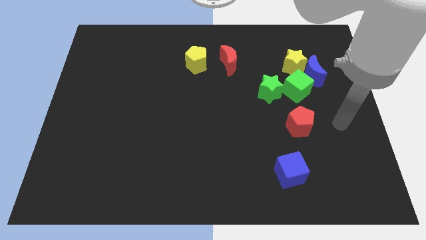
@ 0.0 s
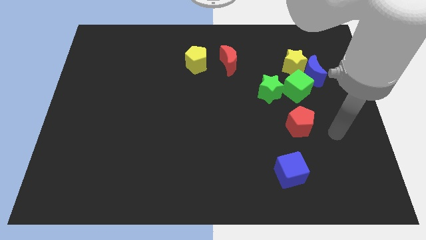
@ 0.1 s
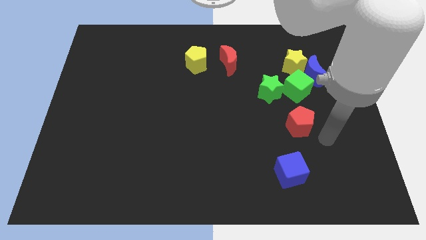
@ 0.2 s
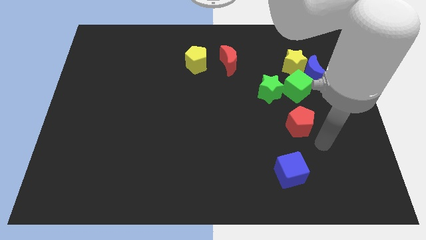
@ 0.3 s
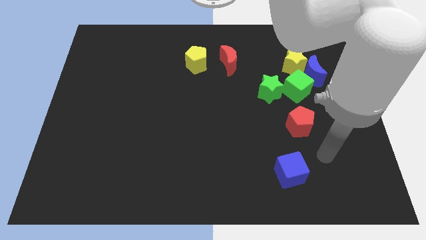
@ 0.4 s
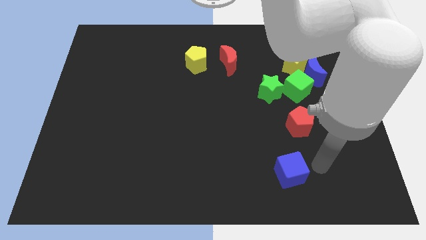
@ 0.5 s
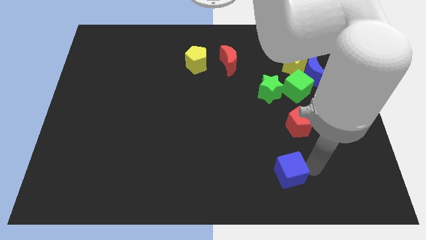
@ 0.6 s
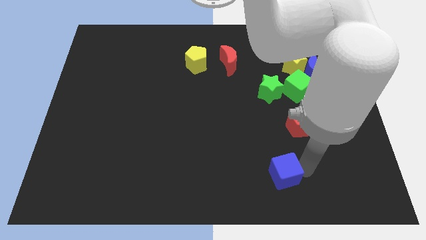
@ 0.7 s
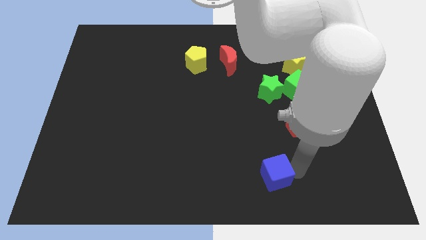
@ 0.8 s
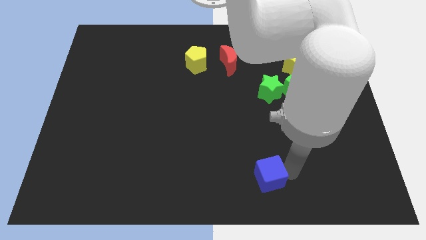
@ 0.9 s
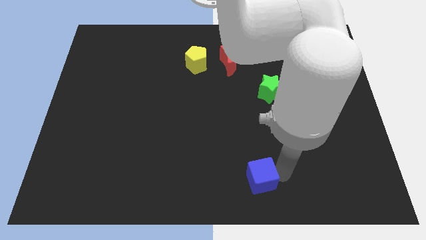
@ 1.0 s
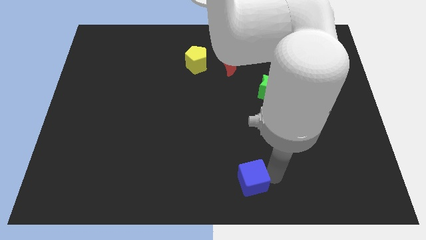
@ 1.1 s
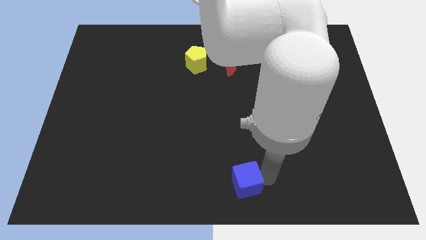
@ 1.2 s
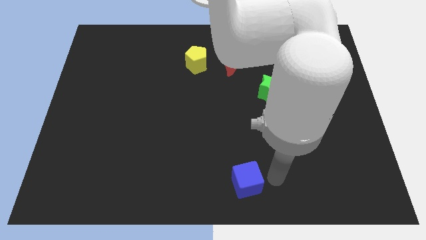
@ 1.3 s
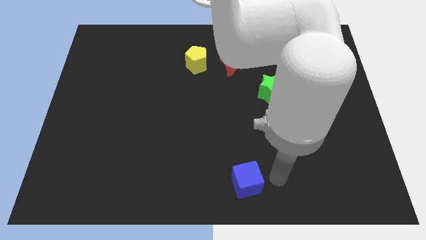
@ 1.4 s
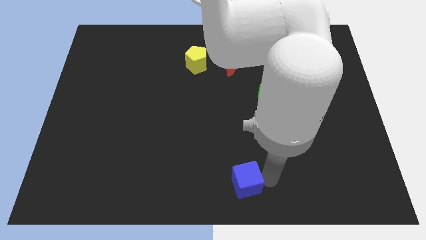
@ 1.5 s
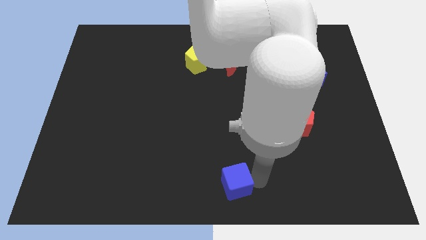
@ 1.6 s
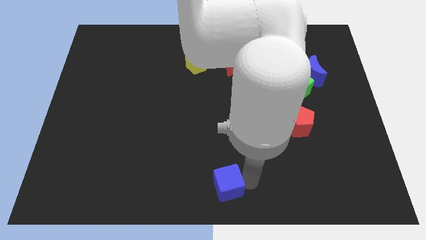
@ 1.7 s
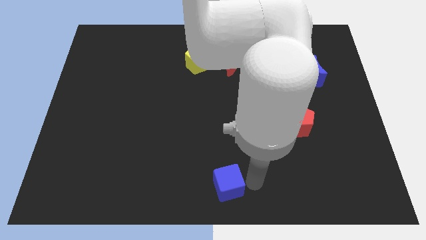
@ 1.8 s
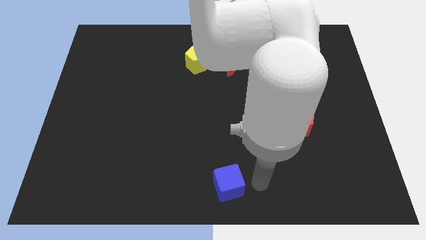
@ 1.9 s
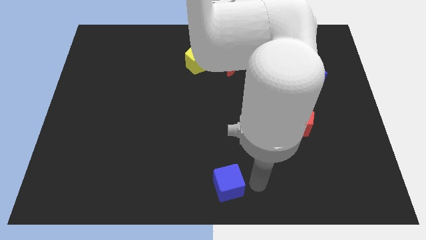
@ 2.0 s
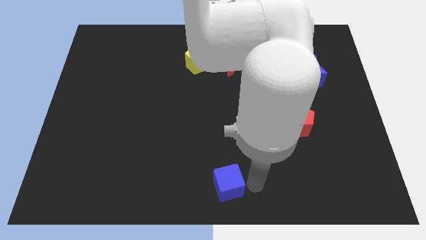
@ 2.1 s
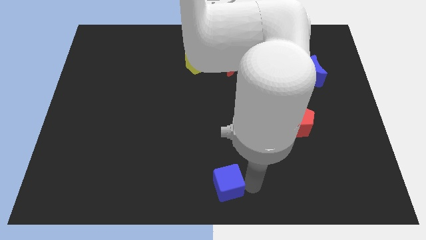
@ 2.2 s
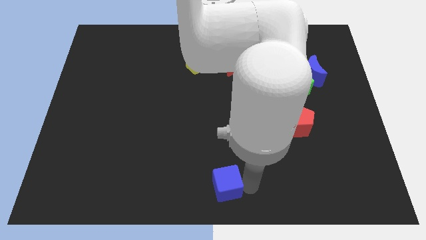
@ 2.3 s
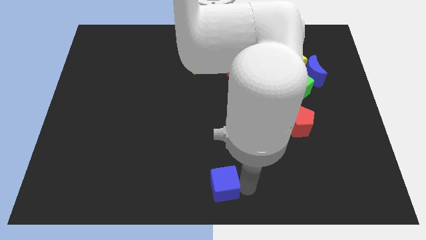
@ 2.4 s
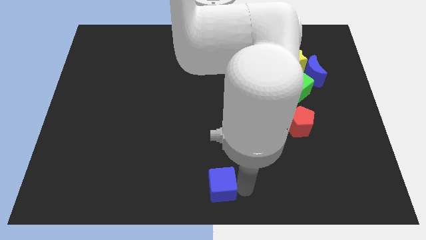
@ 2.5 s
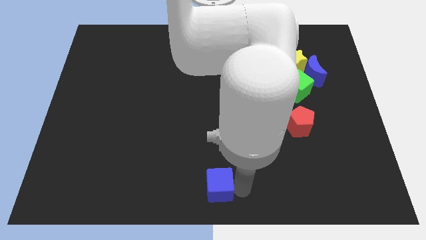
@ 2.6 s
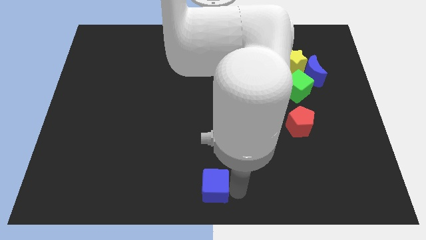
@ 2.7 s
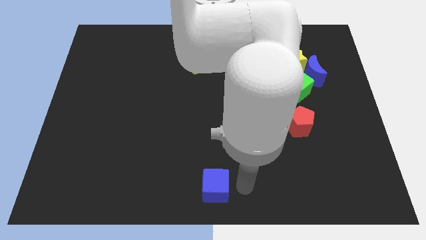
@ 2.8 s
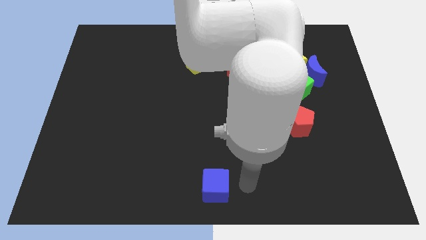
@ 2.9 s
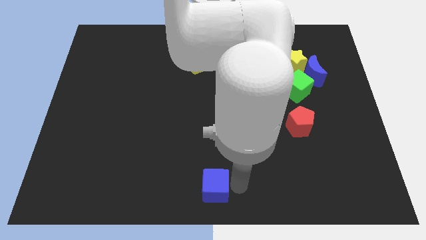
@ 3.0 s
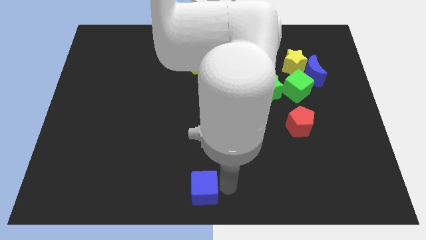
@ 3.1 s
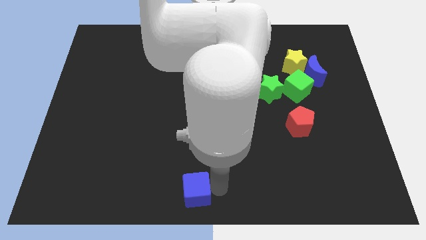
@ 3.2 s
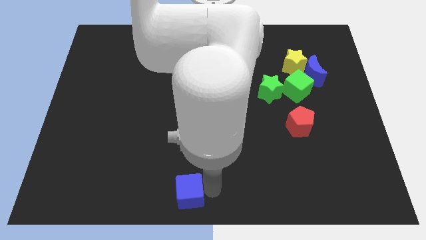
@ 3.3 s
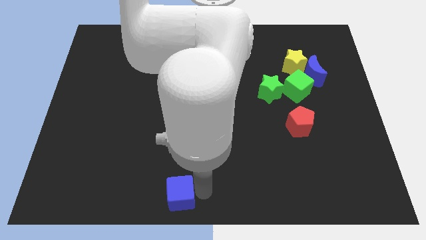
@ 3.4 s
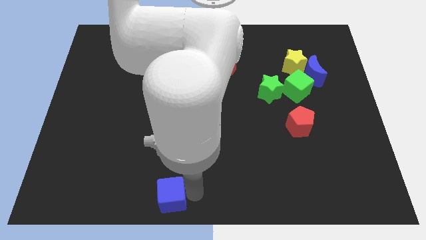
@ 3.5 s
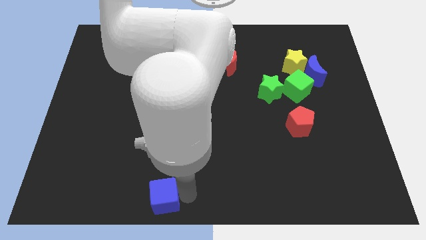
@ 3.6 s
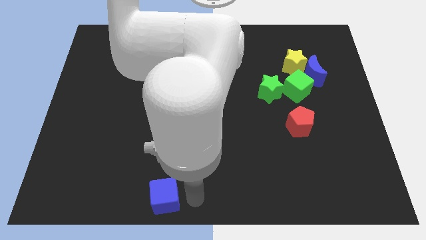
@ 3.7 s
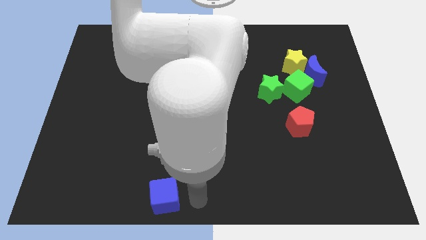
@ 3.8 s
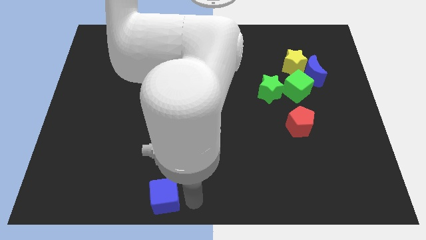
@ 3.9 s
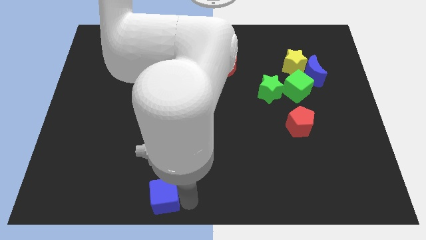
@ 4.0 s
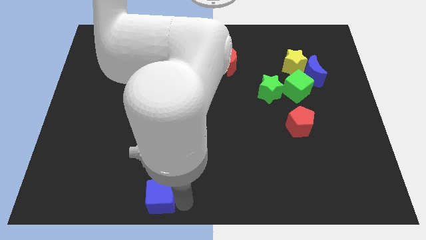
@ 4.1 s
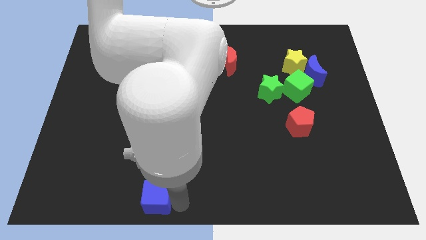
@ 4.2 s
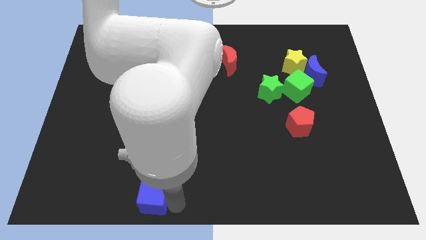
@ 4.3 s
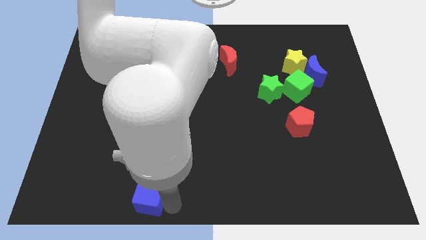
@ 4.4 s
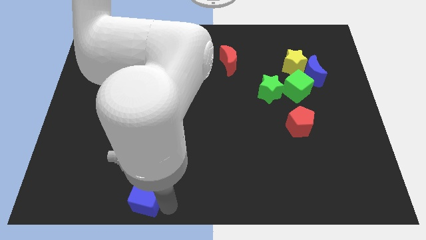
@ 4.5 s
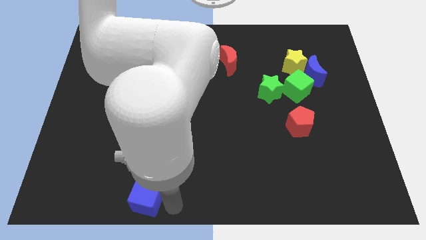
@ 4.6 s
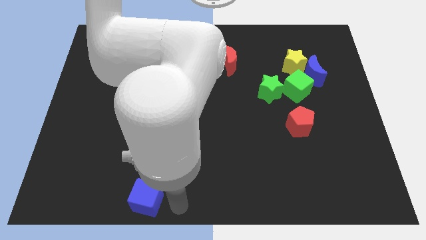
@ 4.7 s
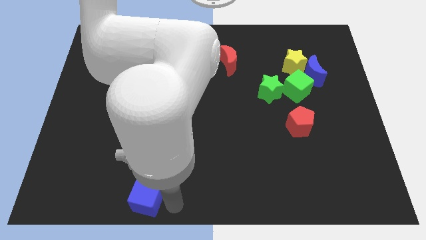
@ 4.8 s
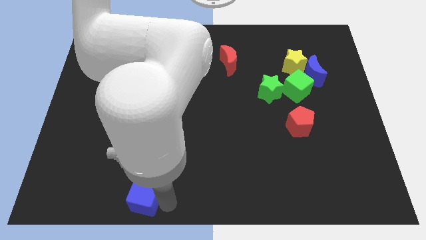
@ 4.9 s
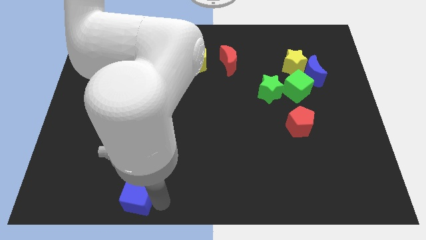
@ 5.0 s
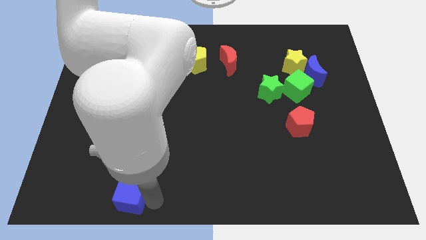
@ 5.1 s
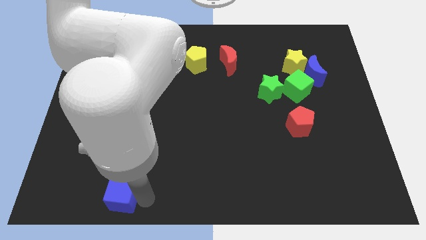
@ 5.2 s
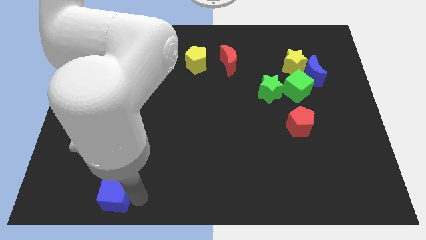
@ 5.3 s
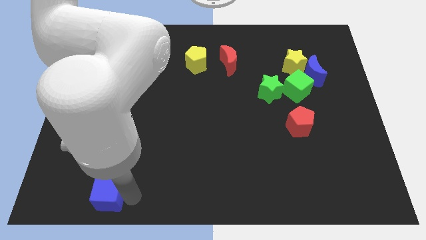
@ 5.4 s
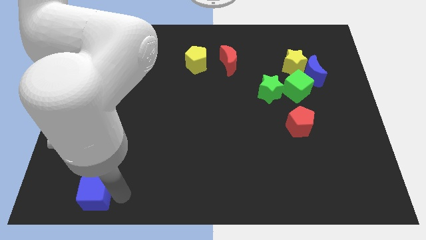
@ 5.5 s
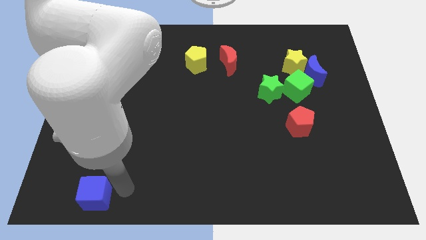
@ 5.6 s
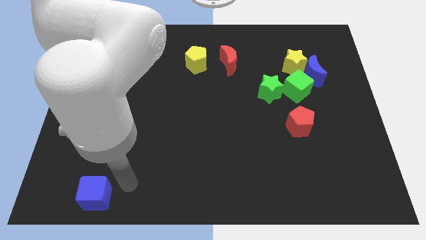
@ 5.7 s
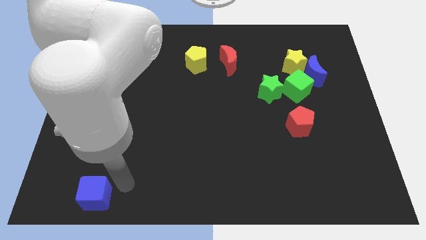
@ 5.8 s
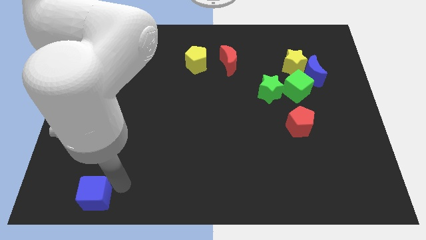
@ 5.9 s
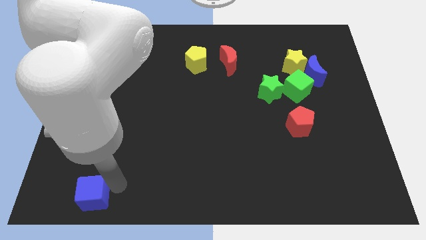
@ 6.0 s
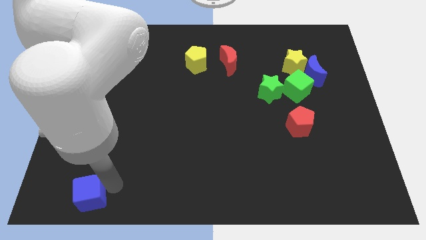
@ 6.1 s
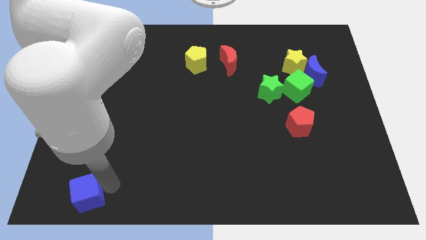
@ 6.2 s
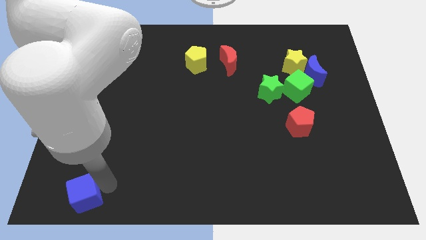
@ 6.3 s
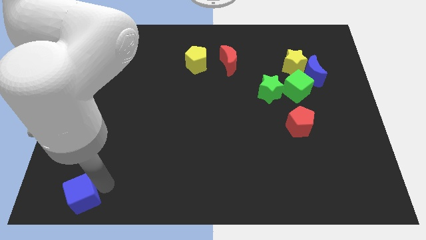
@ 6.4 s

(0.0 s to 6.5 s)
put the blue cube to the bottom left

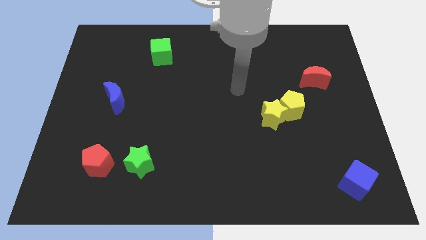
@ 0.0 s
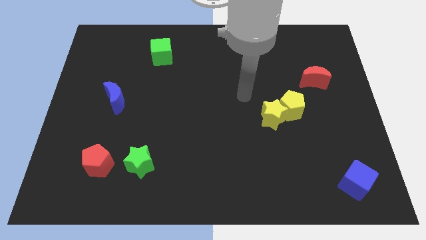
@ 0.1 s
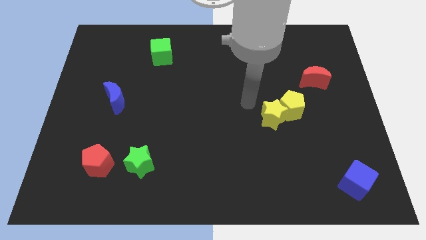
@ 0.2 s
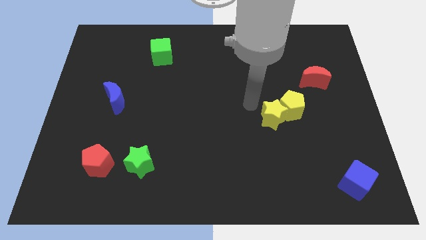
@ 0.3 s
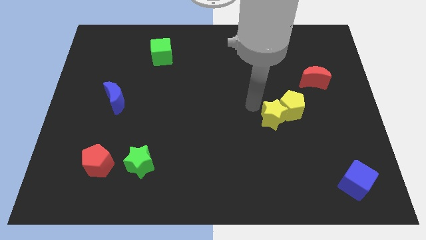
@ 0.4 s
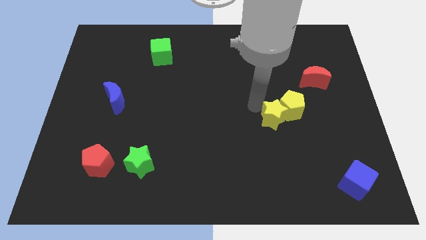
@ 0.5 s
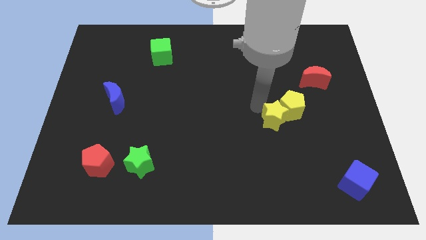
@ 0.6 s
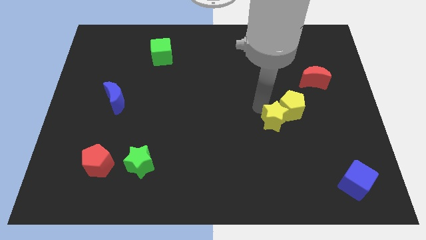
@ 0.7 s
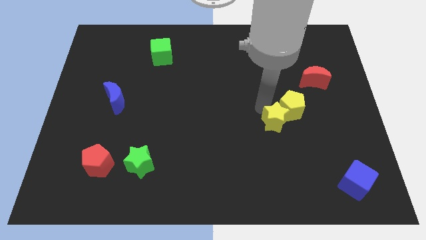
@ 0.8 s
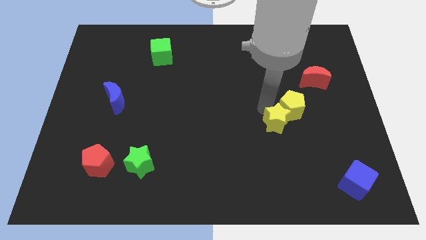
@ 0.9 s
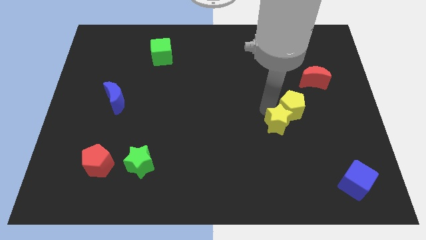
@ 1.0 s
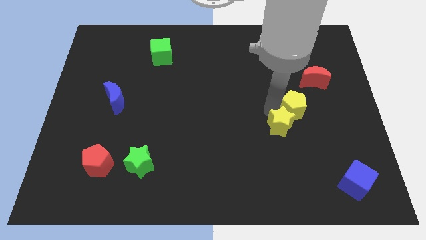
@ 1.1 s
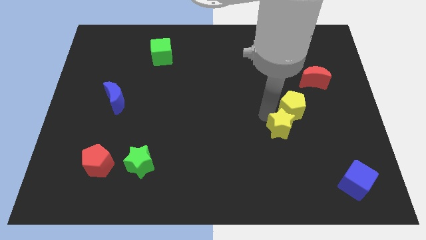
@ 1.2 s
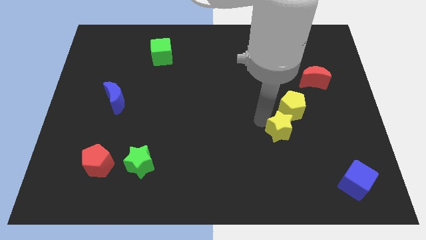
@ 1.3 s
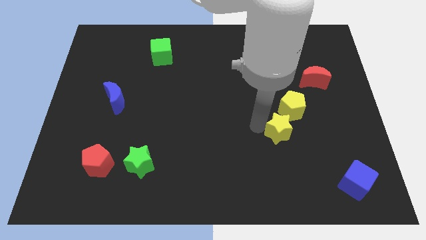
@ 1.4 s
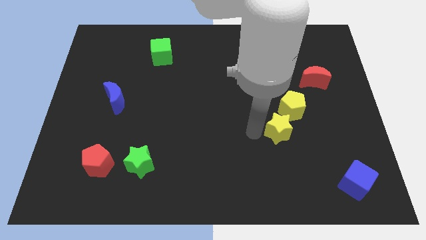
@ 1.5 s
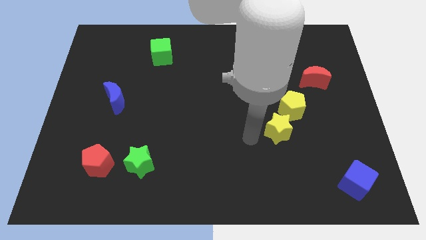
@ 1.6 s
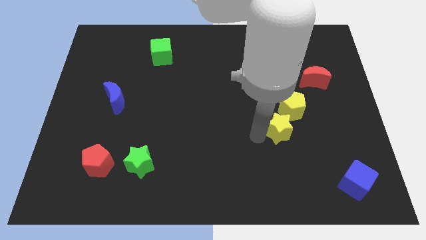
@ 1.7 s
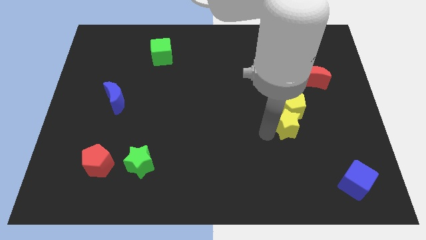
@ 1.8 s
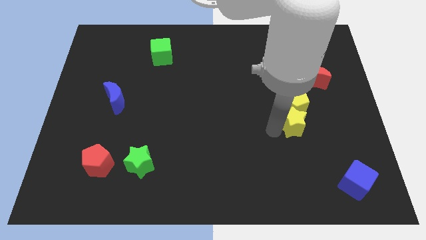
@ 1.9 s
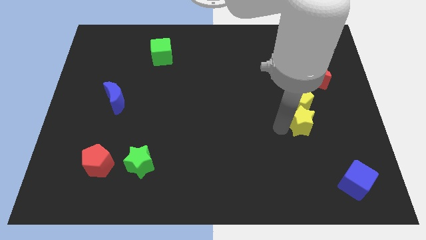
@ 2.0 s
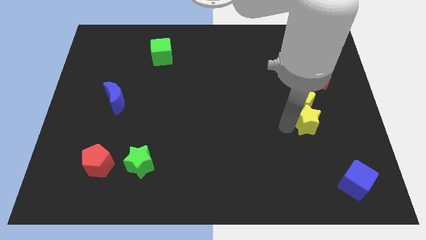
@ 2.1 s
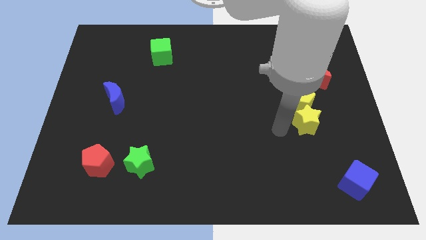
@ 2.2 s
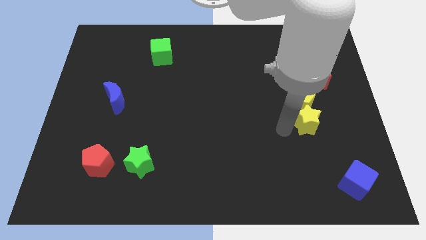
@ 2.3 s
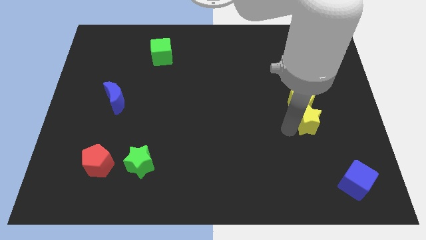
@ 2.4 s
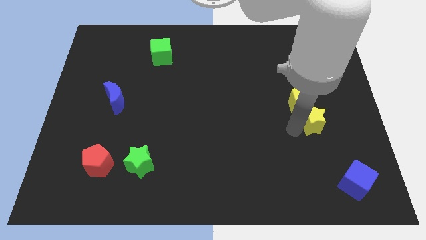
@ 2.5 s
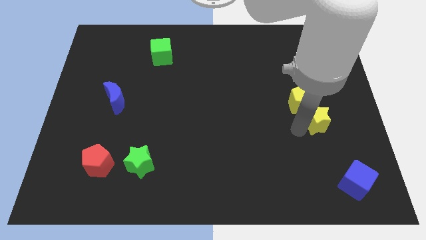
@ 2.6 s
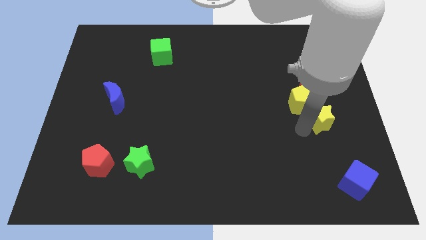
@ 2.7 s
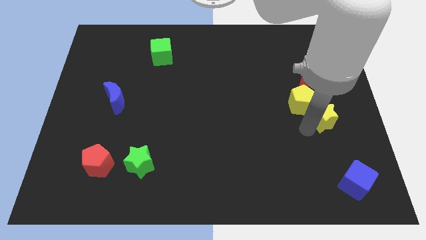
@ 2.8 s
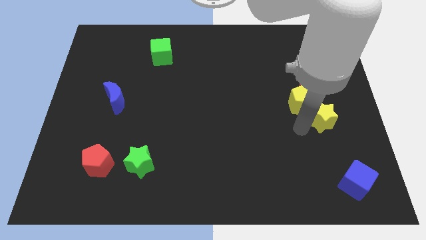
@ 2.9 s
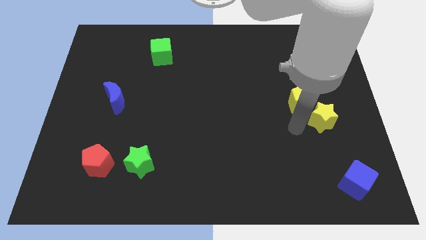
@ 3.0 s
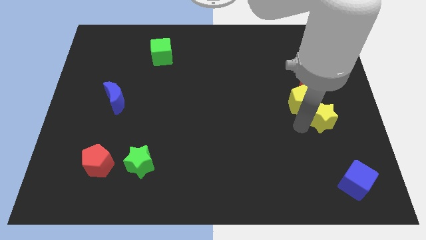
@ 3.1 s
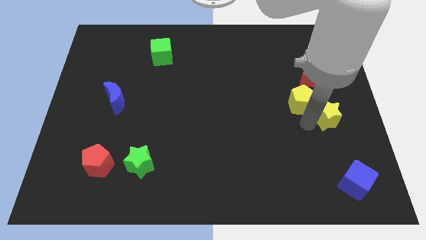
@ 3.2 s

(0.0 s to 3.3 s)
slide the yellow star to the right side of the board
